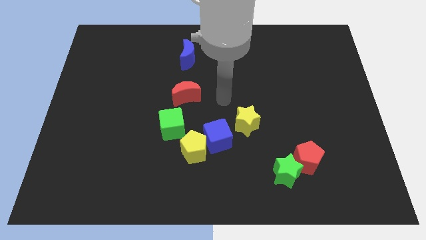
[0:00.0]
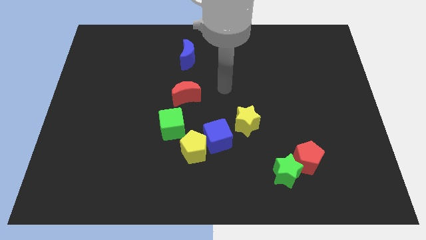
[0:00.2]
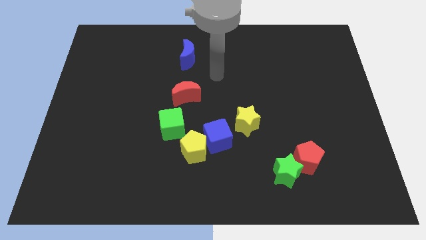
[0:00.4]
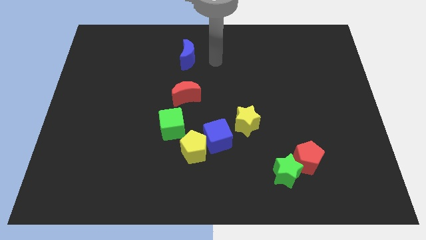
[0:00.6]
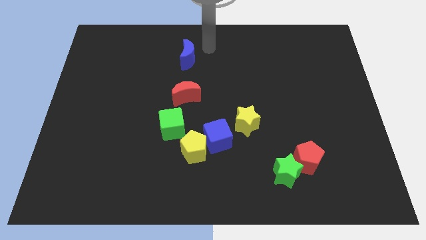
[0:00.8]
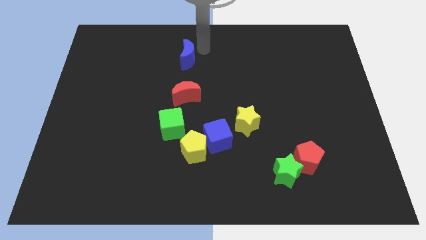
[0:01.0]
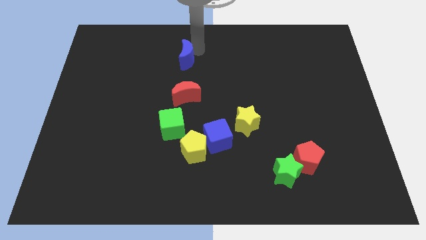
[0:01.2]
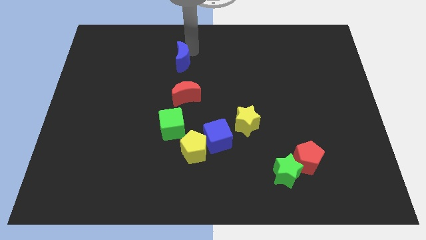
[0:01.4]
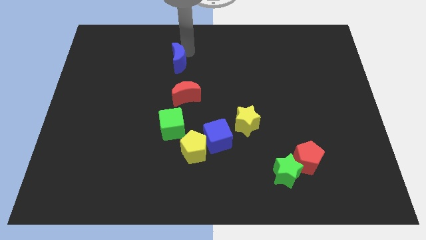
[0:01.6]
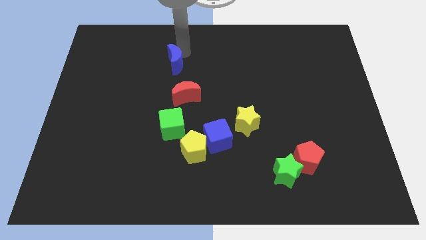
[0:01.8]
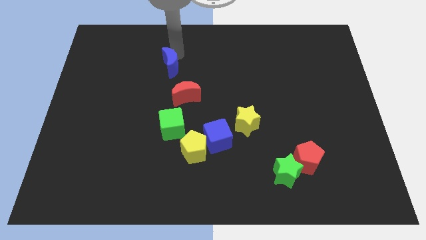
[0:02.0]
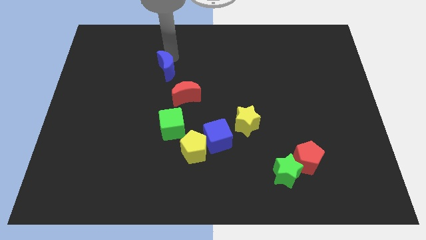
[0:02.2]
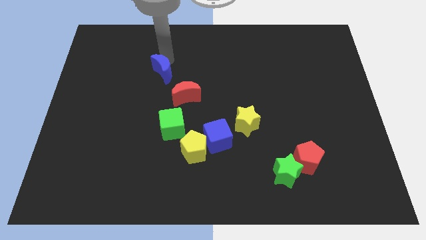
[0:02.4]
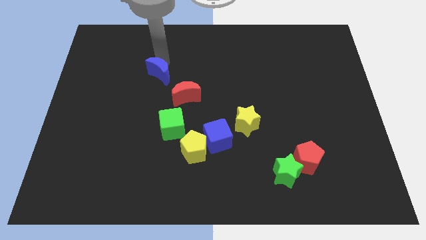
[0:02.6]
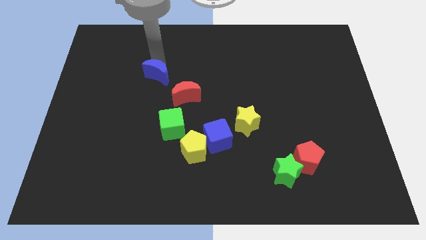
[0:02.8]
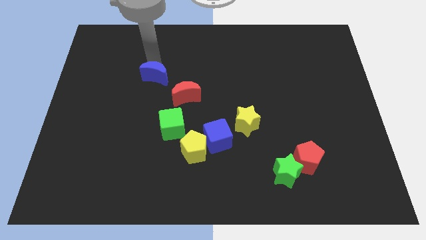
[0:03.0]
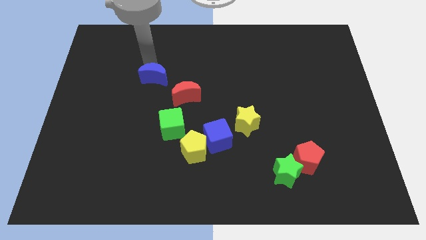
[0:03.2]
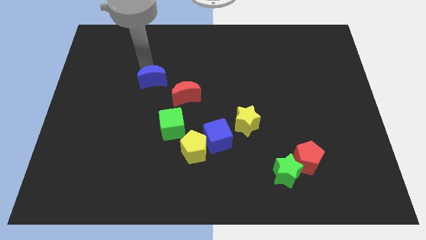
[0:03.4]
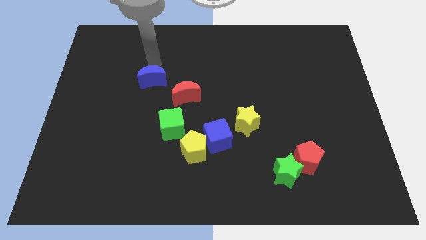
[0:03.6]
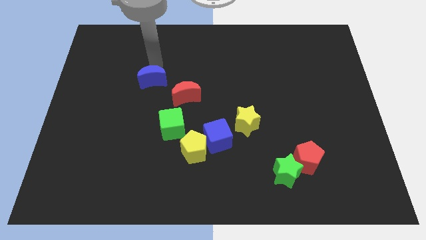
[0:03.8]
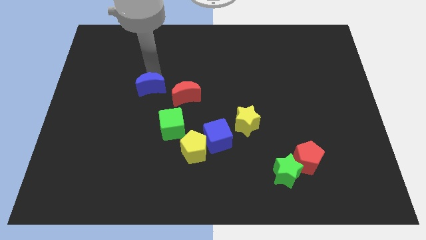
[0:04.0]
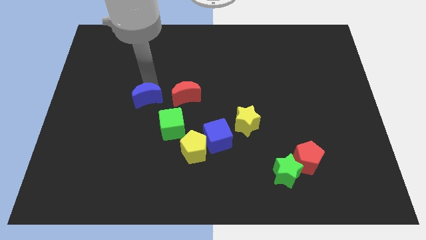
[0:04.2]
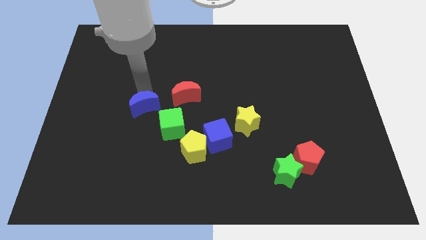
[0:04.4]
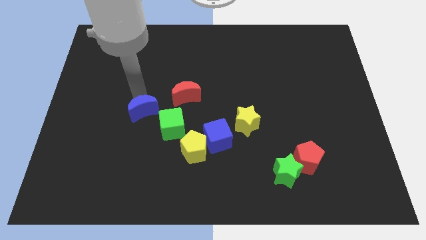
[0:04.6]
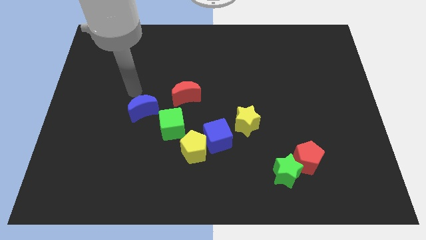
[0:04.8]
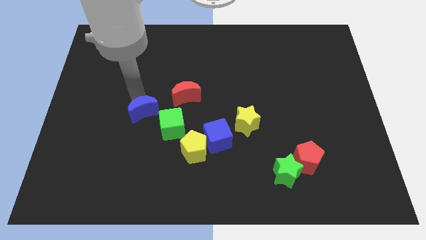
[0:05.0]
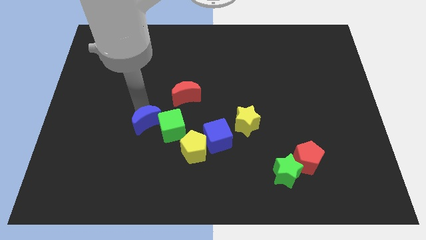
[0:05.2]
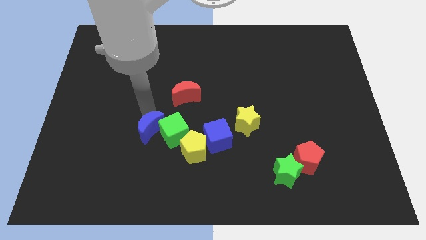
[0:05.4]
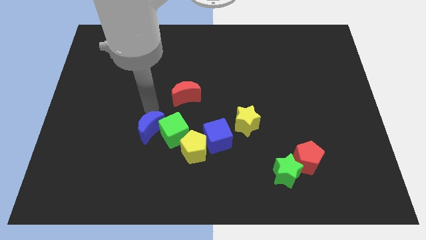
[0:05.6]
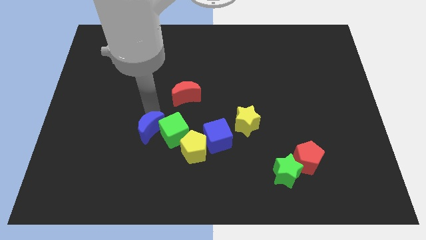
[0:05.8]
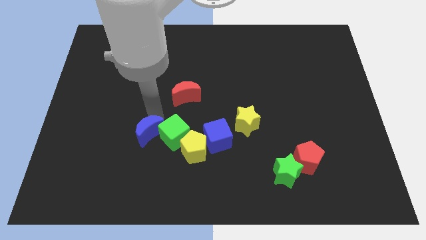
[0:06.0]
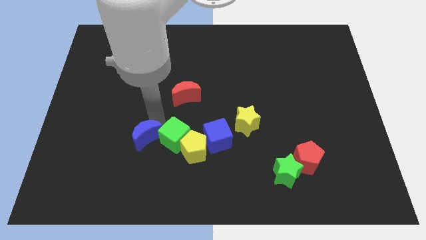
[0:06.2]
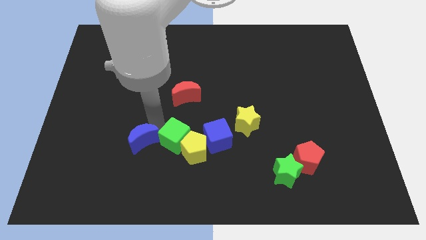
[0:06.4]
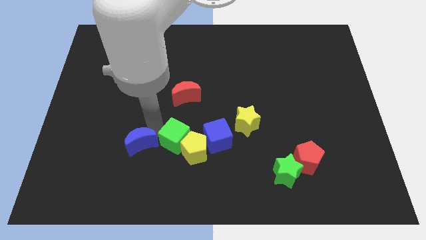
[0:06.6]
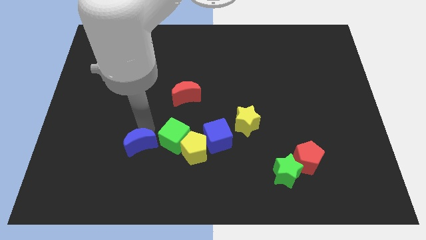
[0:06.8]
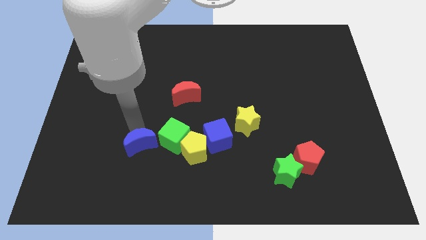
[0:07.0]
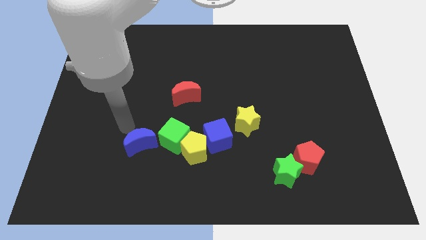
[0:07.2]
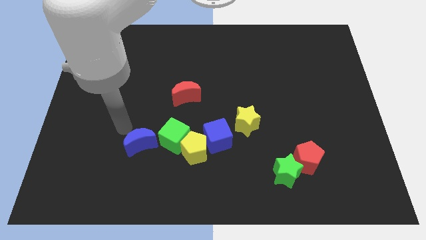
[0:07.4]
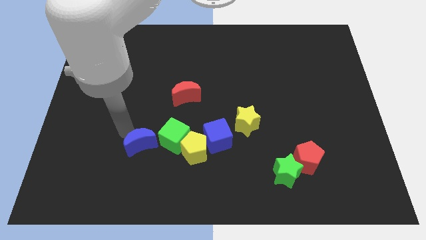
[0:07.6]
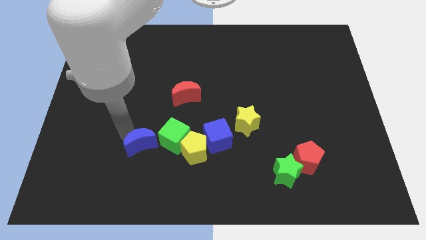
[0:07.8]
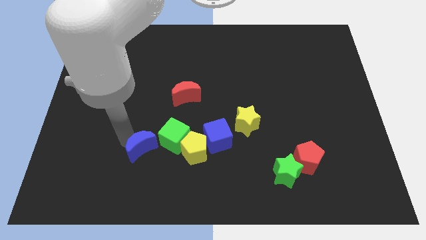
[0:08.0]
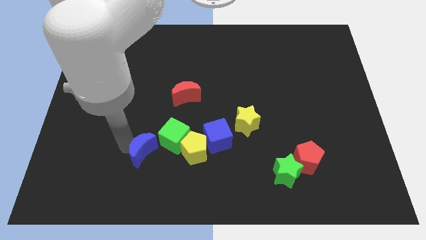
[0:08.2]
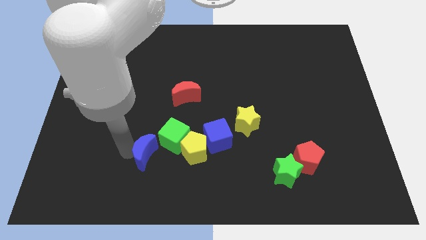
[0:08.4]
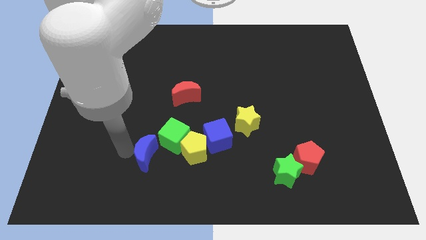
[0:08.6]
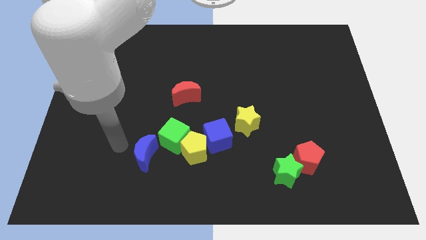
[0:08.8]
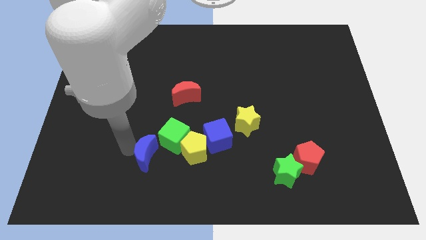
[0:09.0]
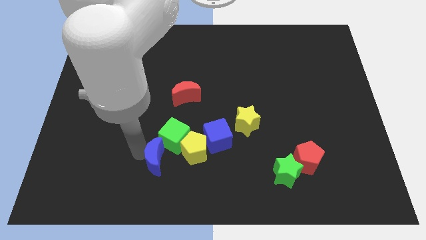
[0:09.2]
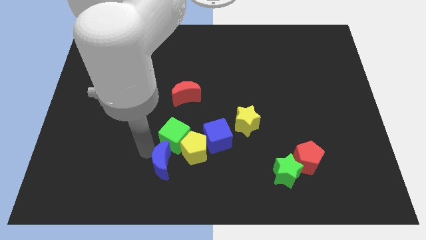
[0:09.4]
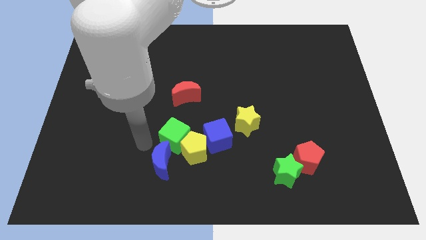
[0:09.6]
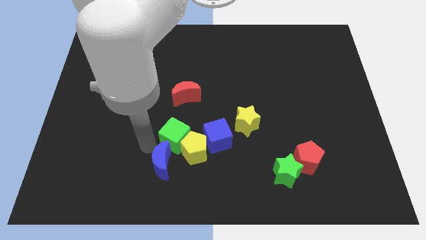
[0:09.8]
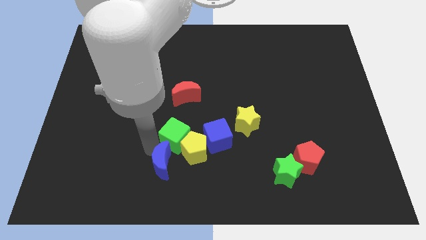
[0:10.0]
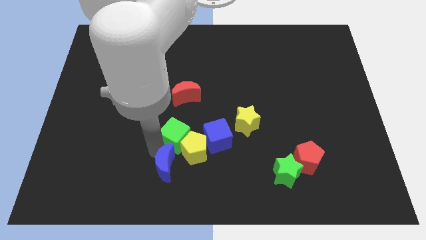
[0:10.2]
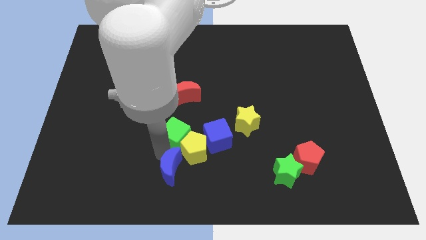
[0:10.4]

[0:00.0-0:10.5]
push the blue moon to the bottom side

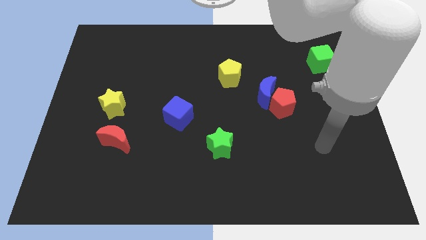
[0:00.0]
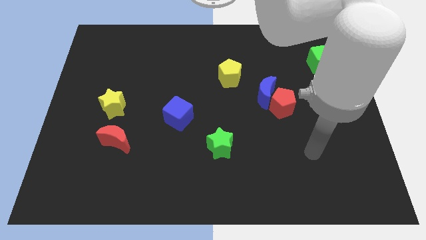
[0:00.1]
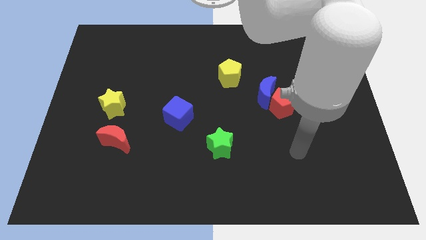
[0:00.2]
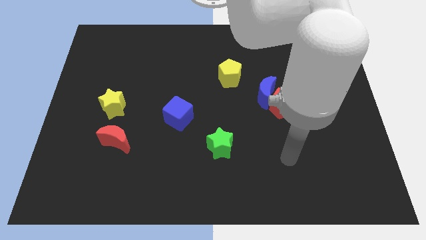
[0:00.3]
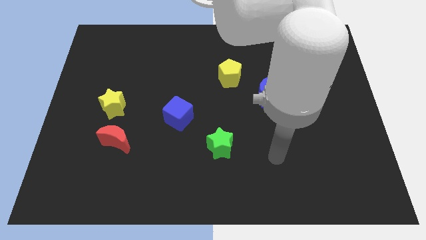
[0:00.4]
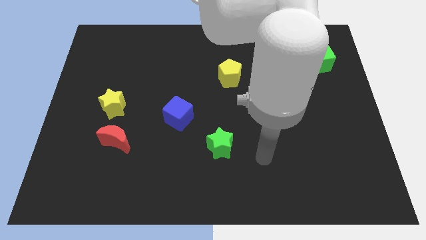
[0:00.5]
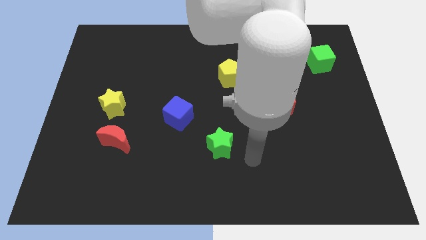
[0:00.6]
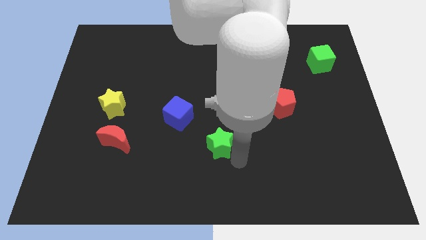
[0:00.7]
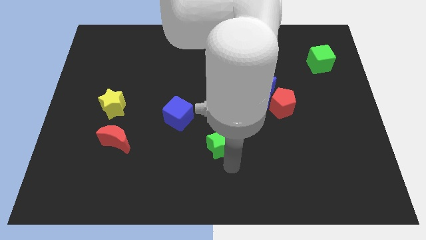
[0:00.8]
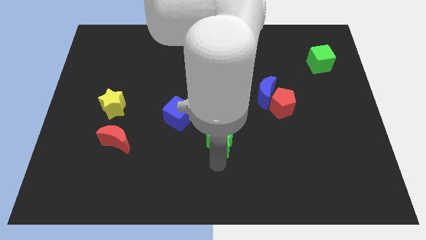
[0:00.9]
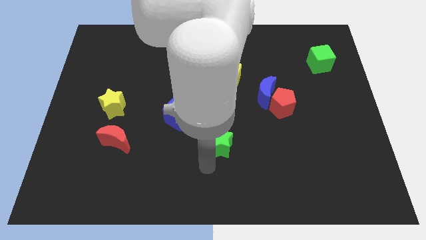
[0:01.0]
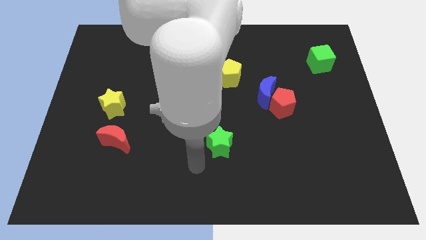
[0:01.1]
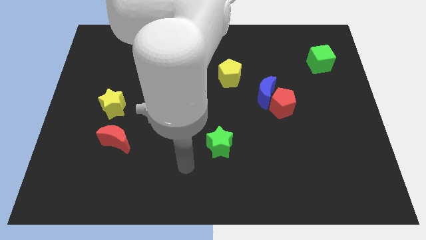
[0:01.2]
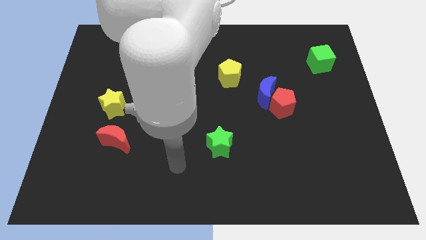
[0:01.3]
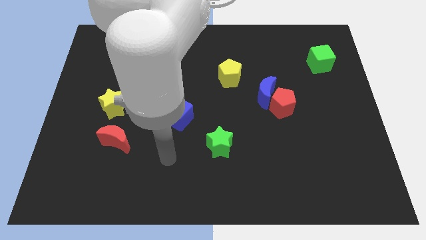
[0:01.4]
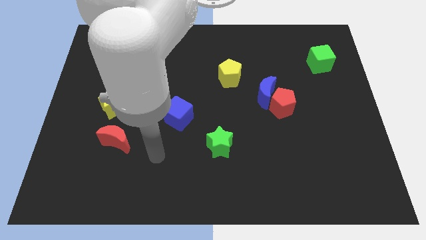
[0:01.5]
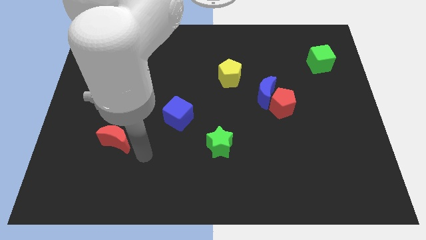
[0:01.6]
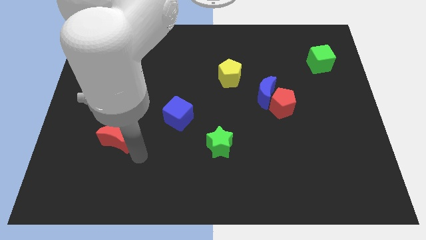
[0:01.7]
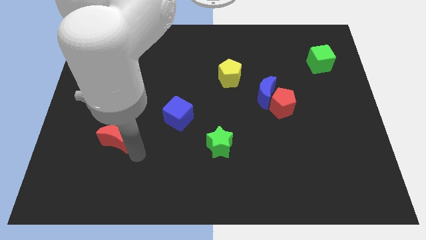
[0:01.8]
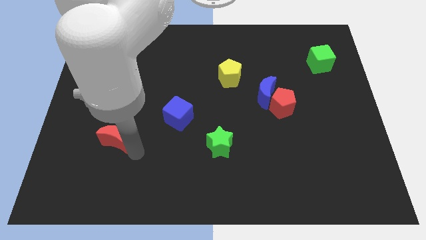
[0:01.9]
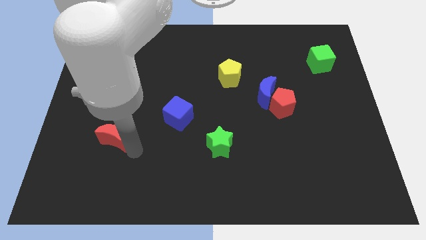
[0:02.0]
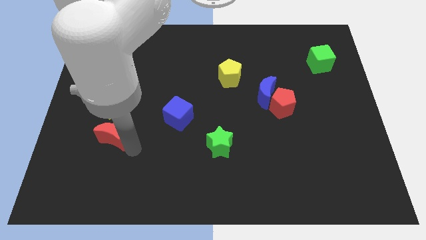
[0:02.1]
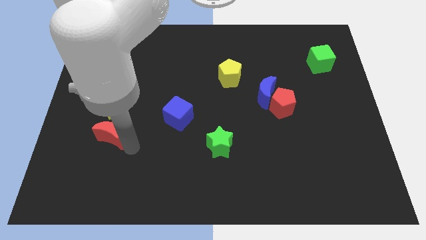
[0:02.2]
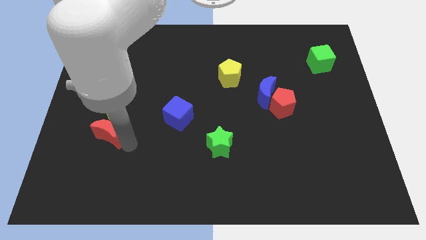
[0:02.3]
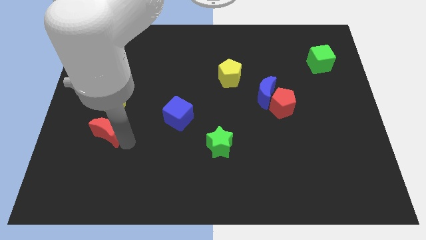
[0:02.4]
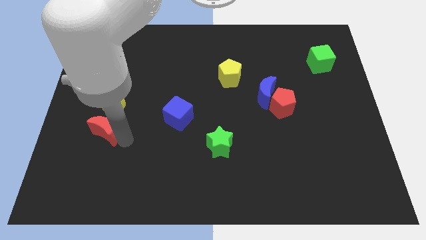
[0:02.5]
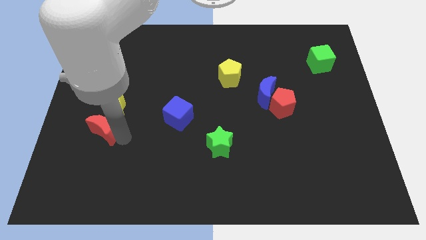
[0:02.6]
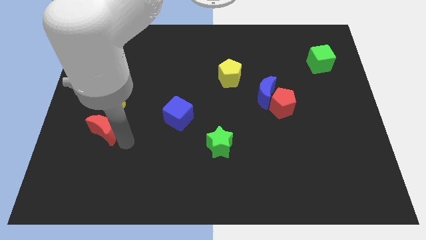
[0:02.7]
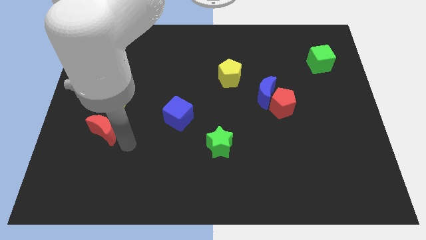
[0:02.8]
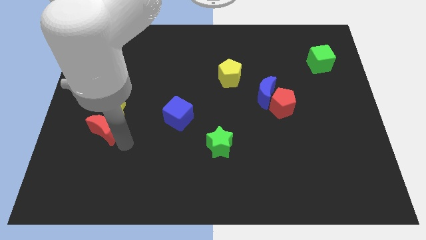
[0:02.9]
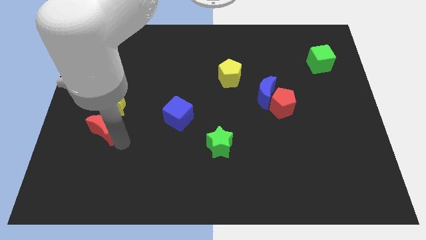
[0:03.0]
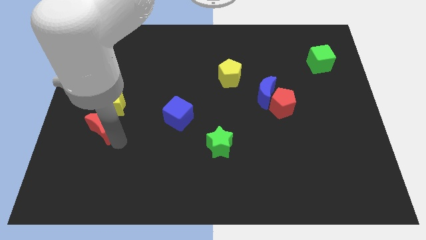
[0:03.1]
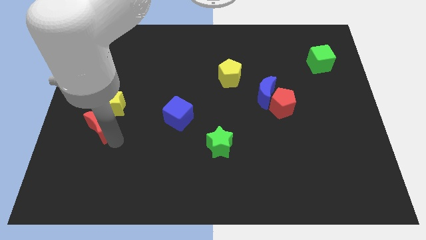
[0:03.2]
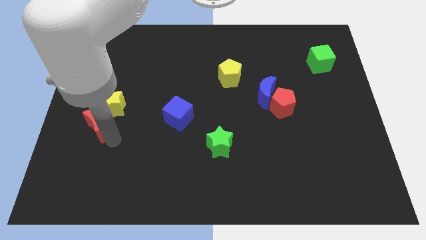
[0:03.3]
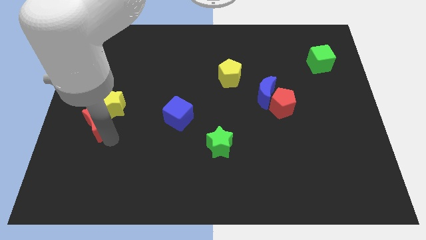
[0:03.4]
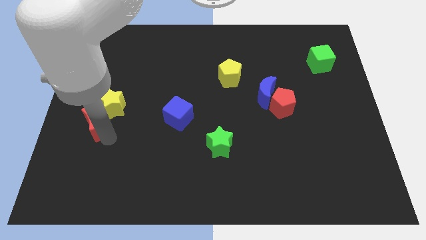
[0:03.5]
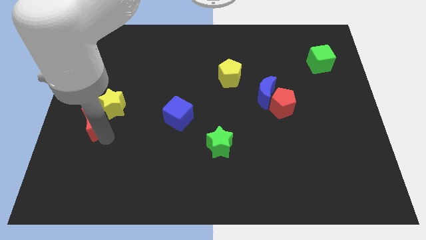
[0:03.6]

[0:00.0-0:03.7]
slide the red moon to the center left
